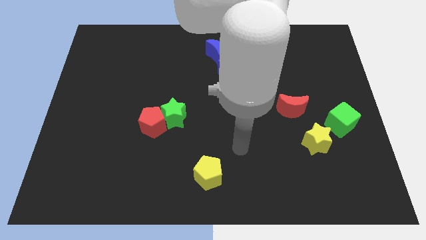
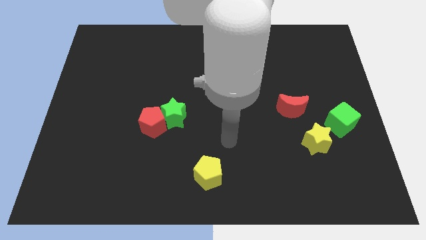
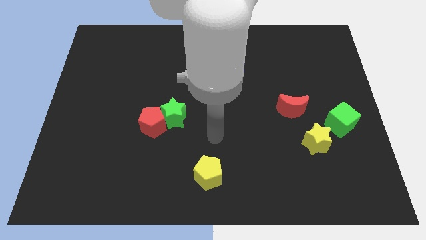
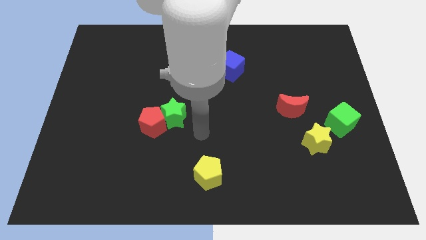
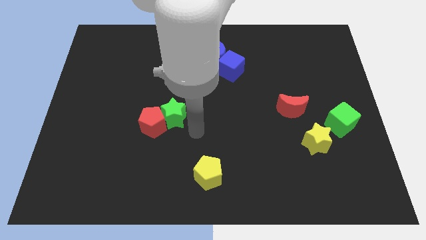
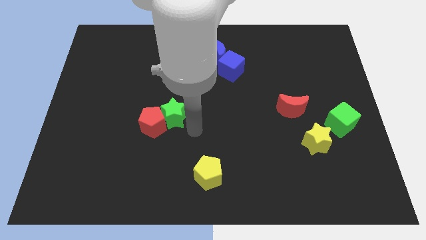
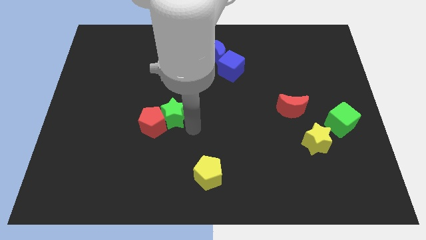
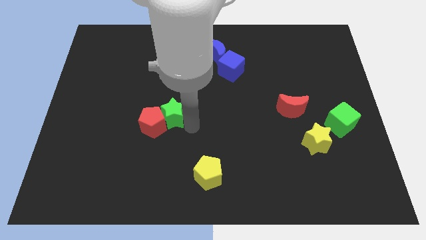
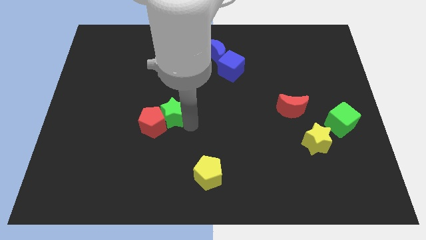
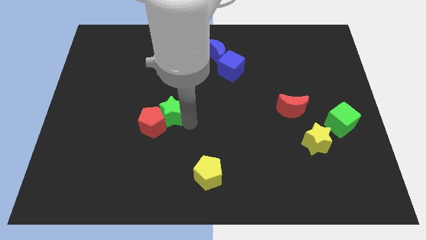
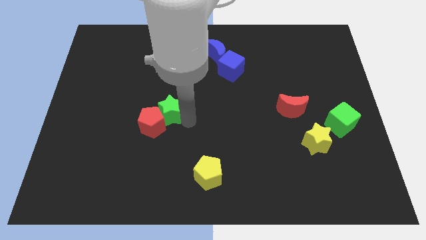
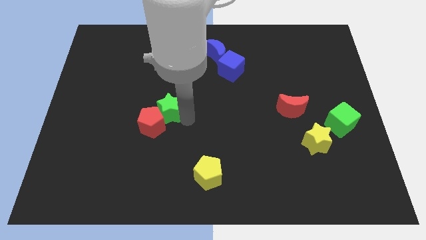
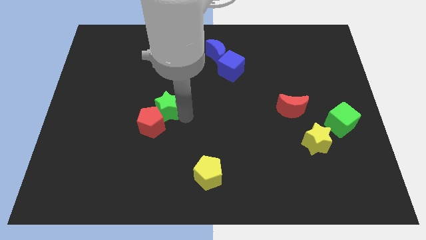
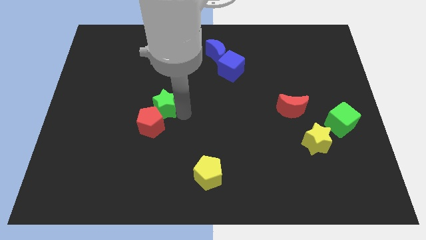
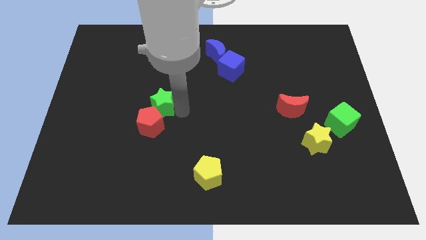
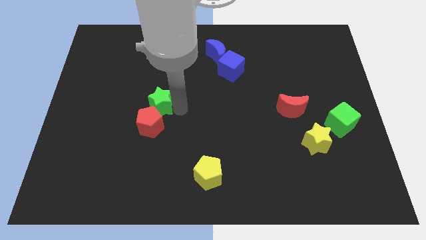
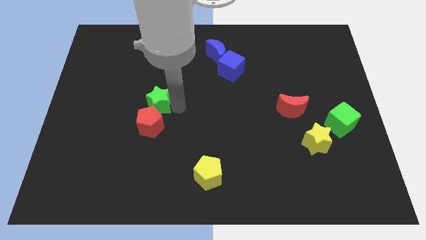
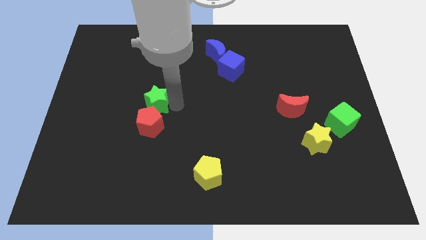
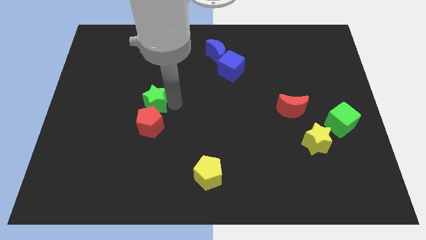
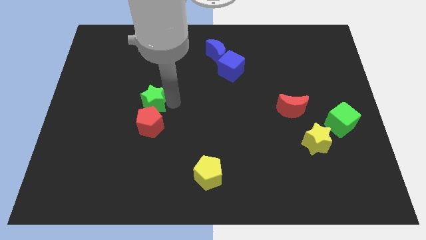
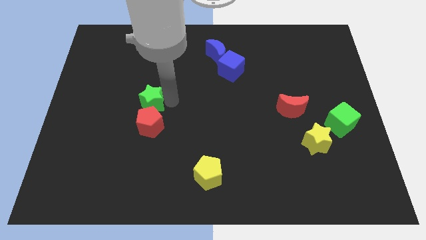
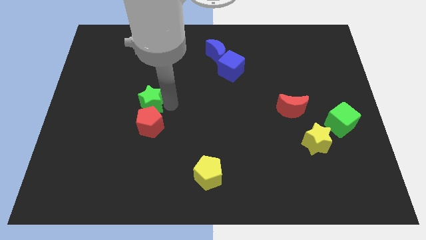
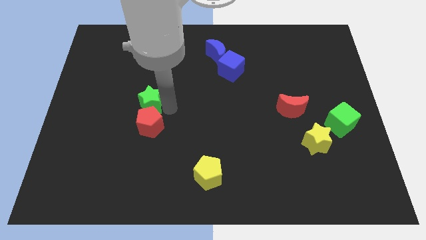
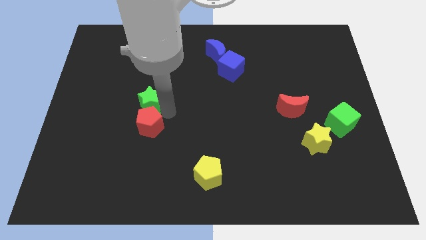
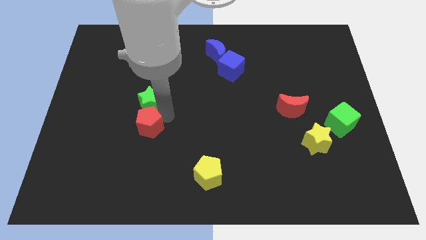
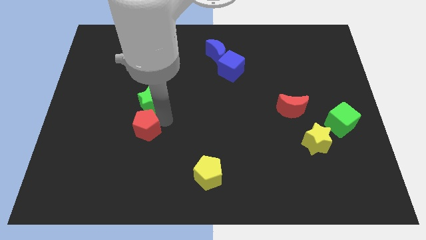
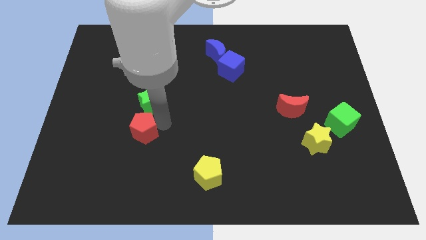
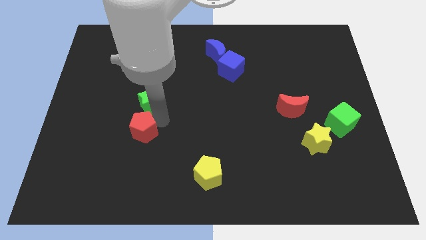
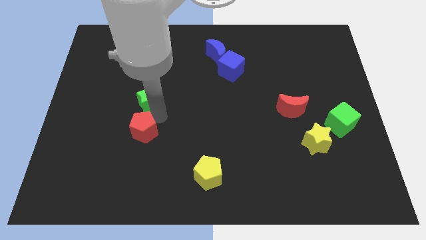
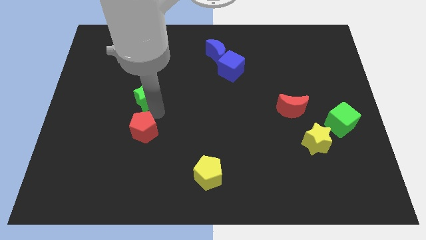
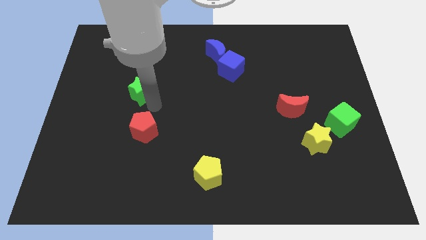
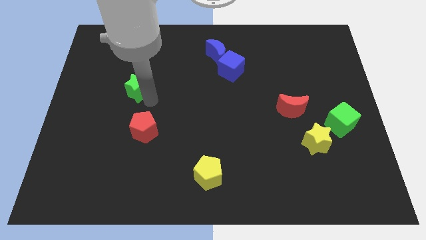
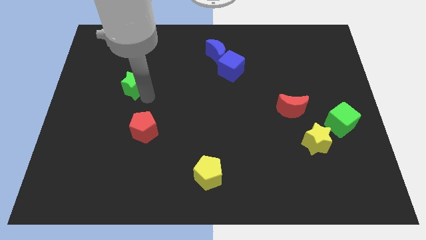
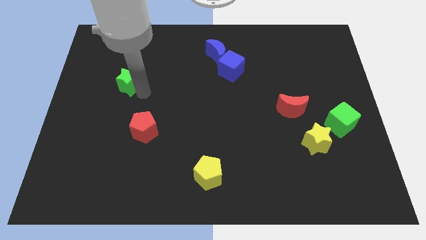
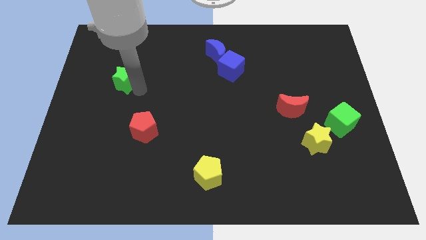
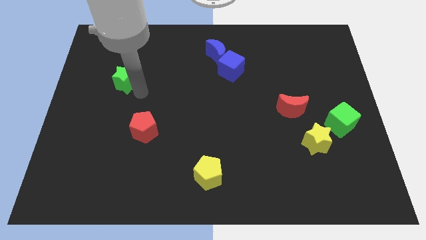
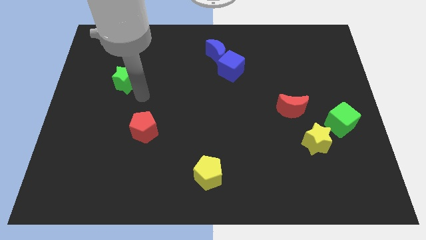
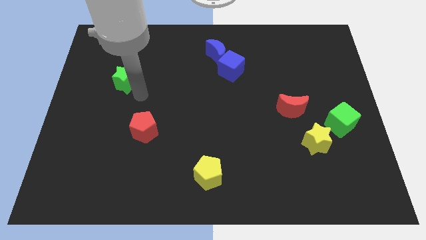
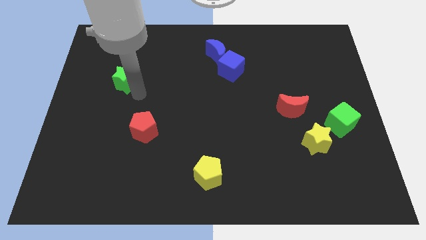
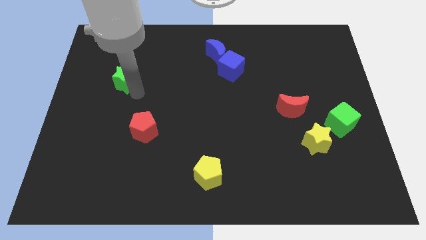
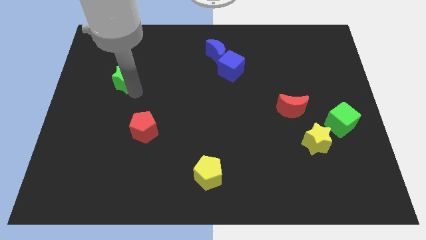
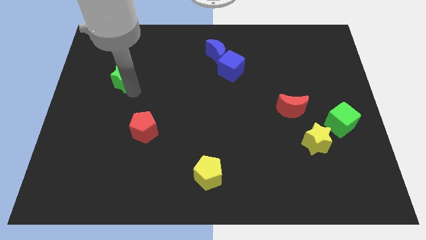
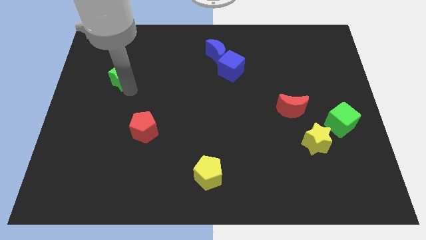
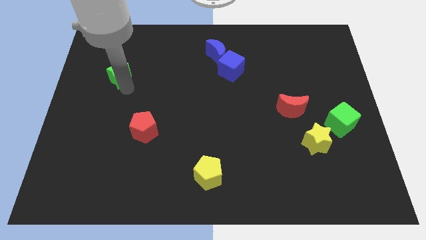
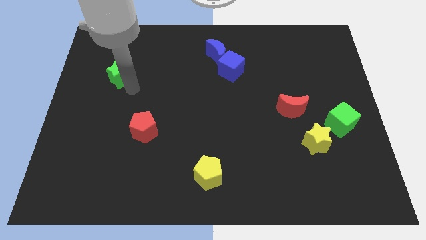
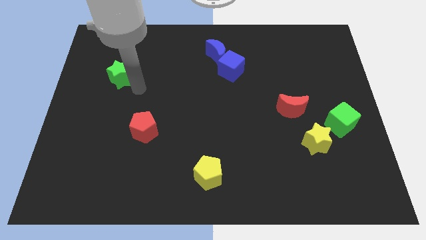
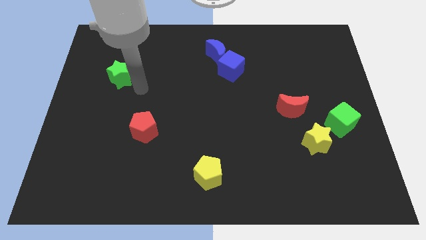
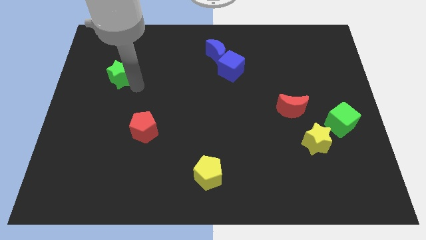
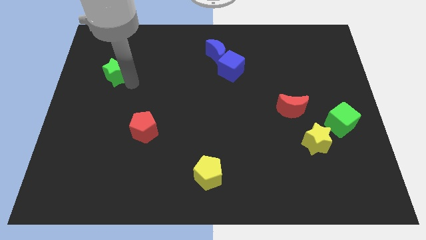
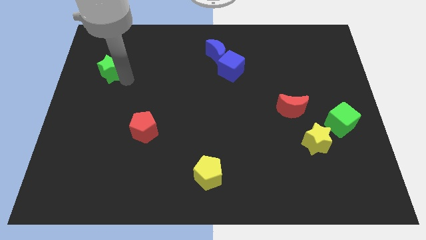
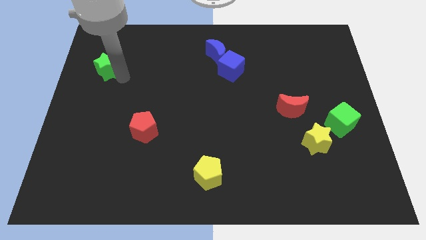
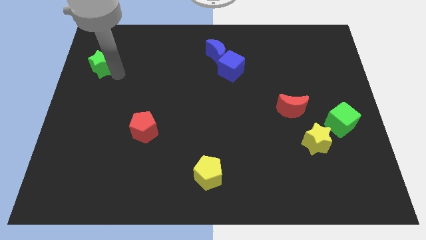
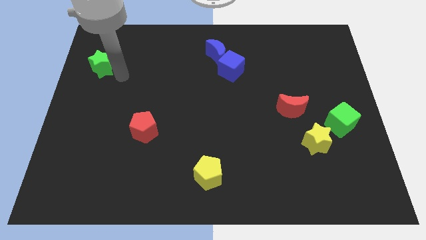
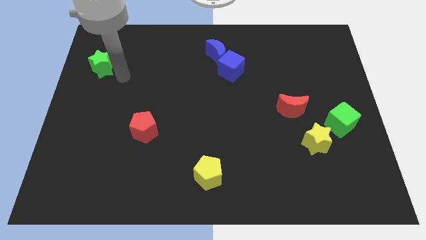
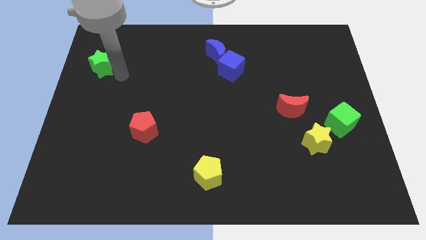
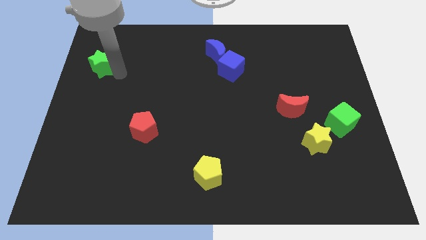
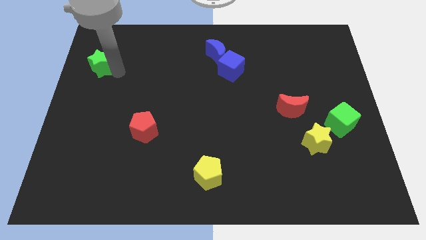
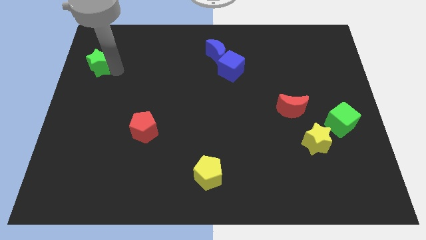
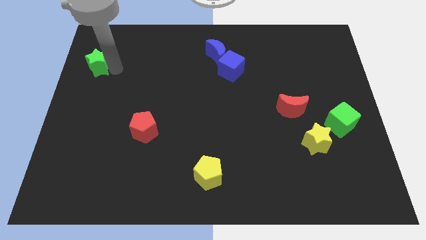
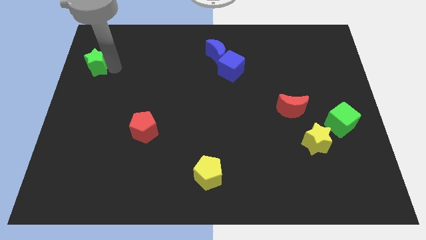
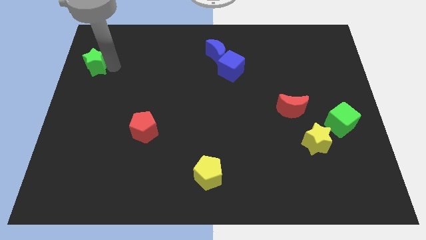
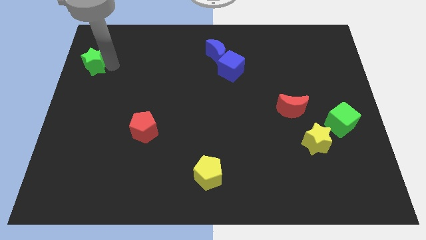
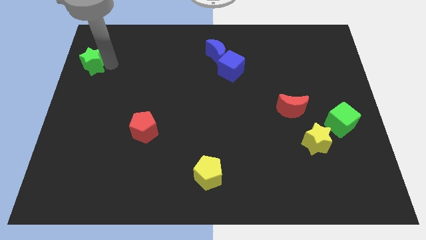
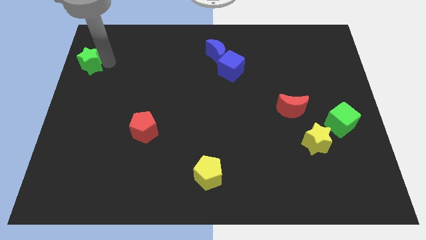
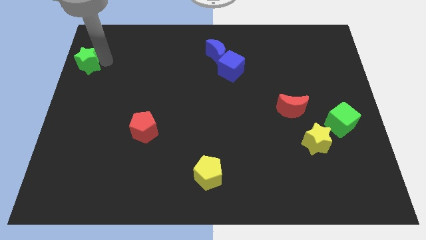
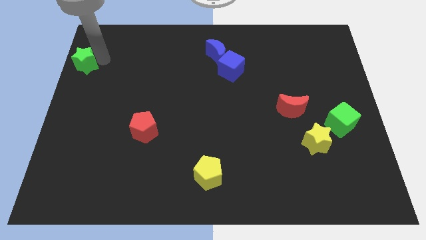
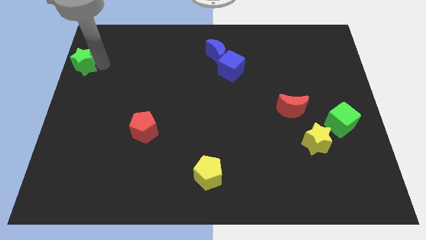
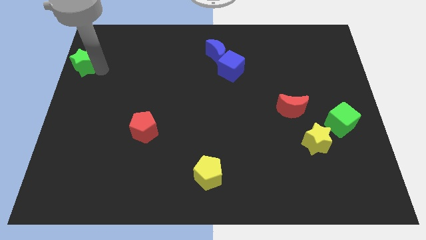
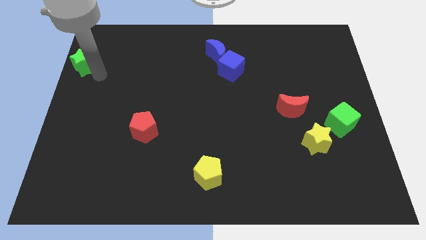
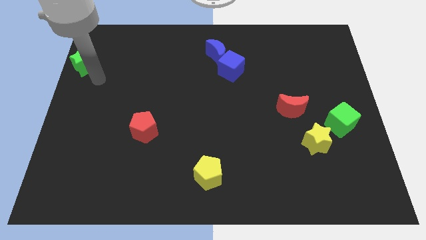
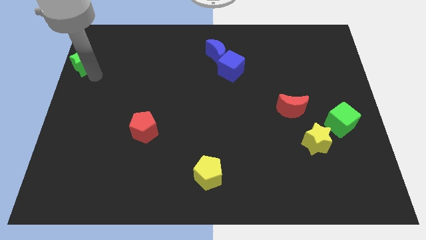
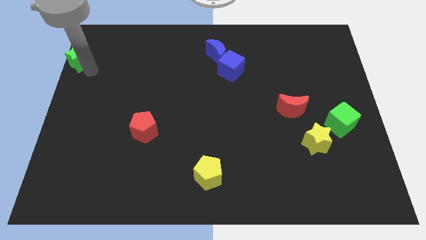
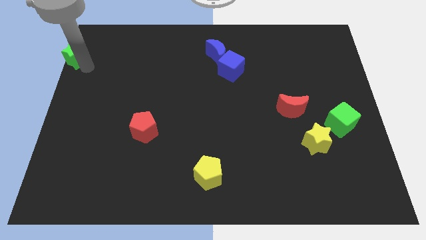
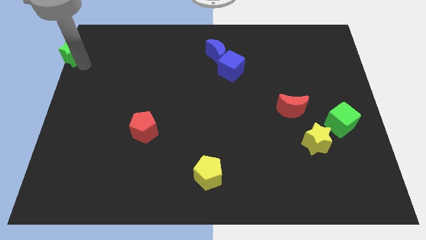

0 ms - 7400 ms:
put the green star to the top left

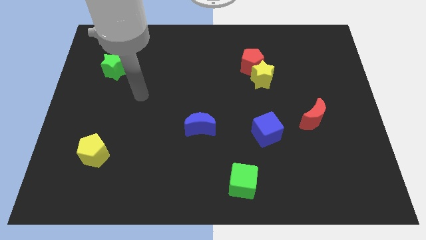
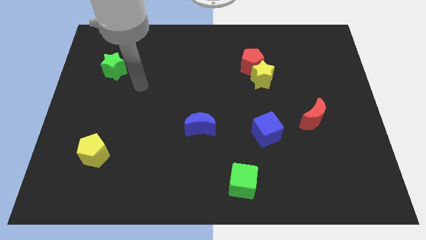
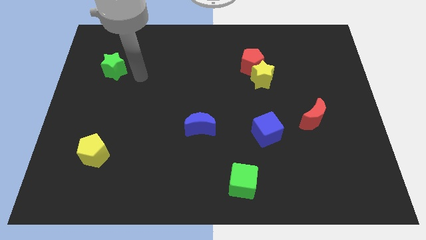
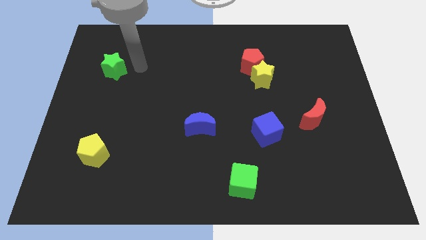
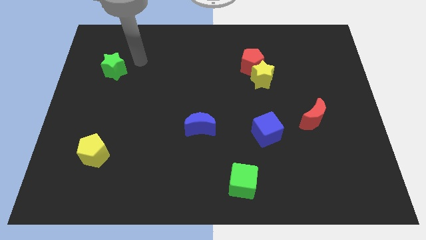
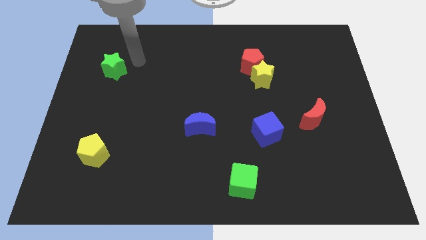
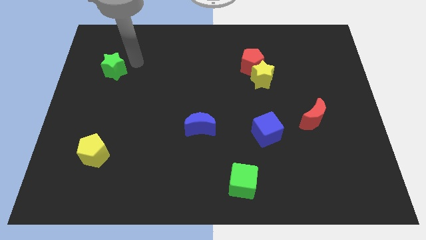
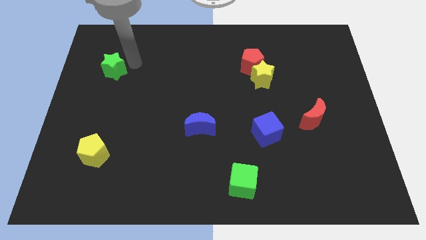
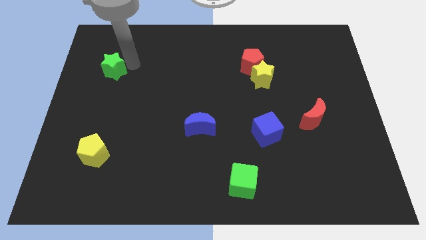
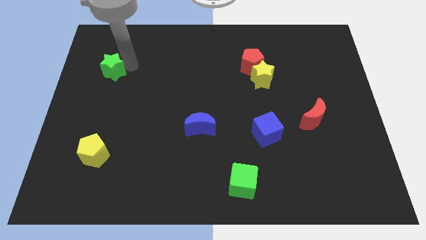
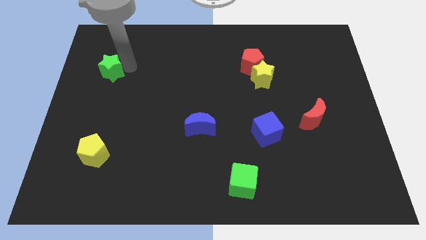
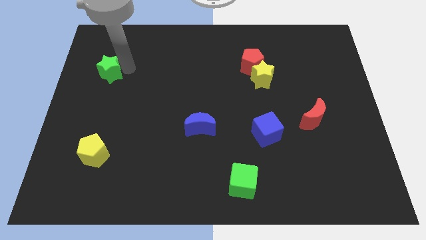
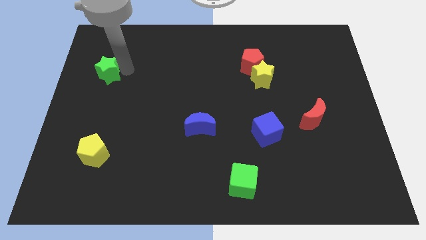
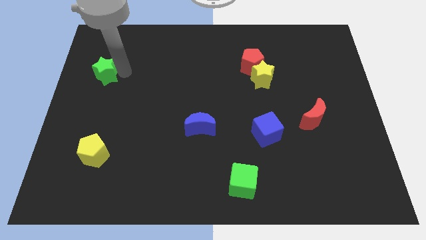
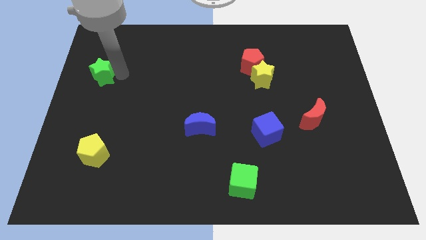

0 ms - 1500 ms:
put the green star to the left side of the board
